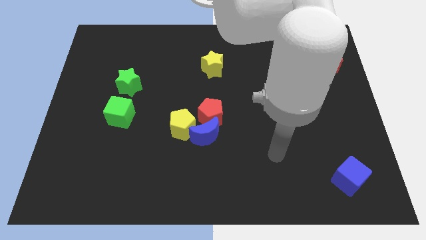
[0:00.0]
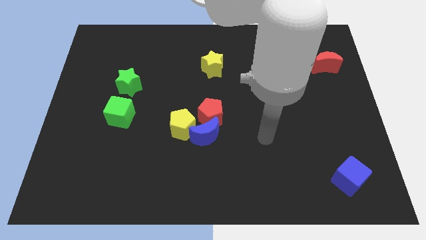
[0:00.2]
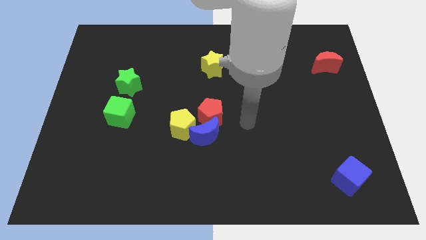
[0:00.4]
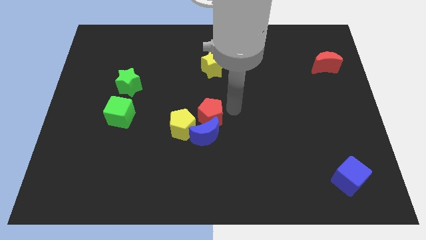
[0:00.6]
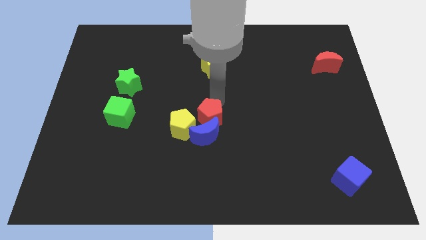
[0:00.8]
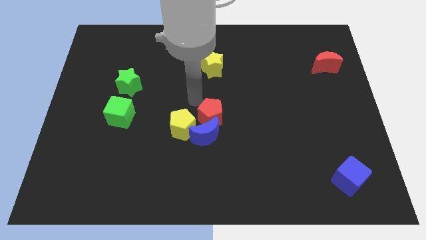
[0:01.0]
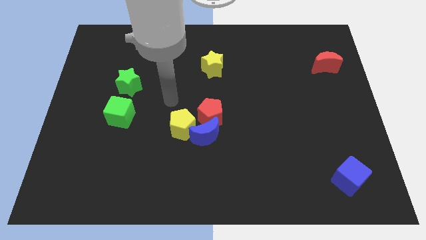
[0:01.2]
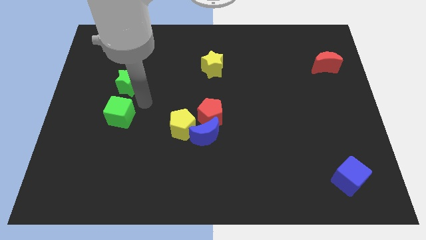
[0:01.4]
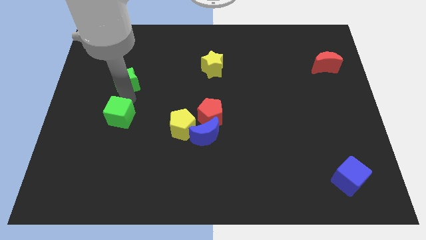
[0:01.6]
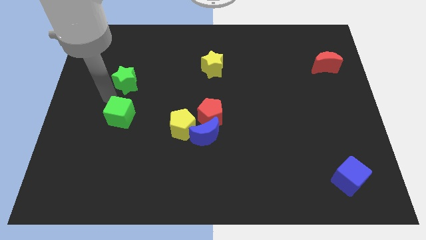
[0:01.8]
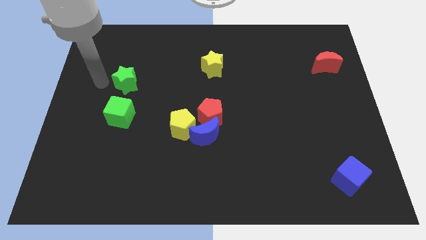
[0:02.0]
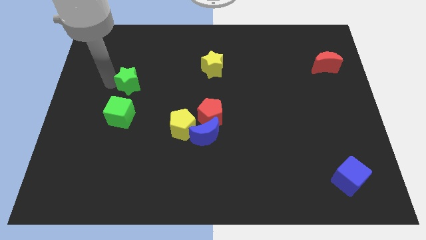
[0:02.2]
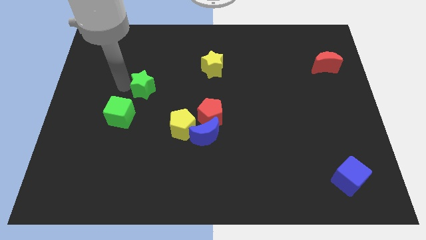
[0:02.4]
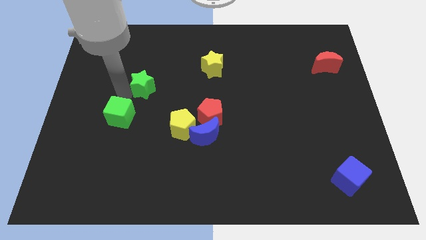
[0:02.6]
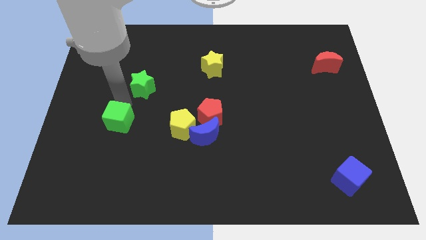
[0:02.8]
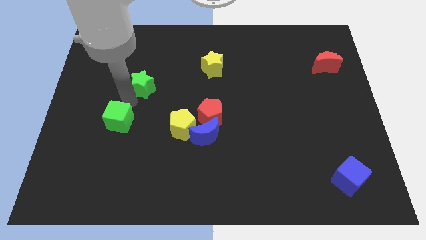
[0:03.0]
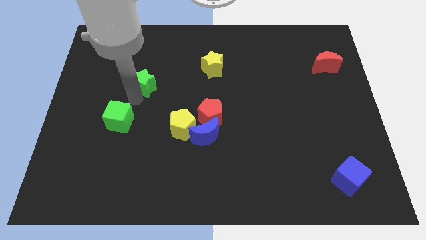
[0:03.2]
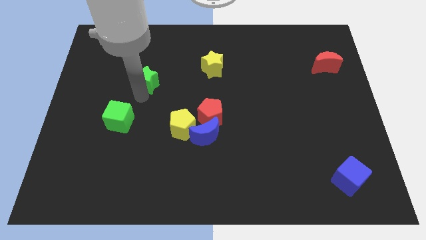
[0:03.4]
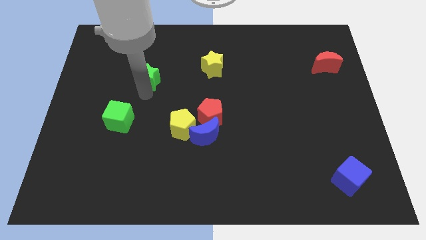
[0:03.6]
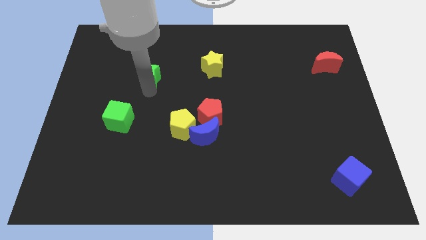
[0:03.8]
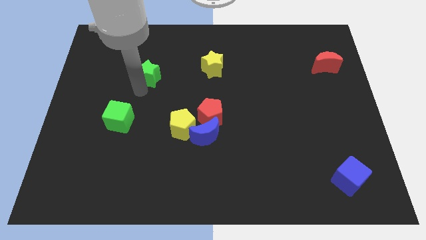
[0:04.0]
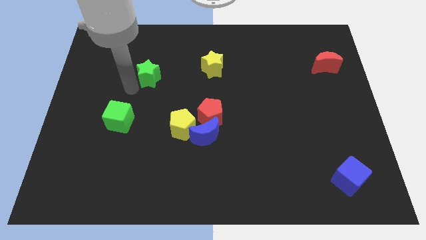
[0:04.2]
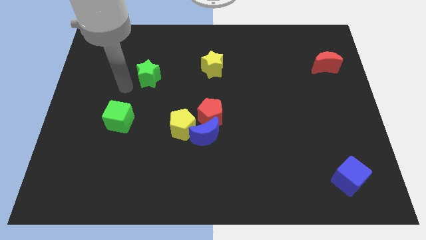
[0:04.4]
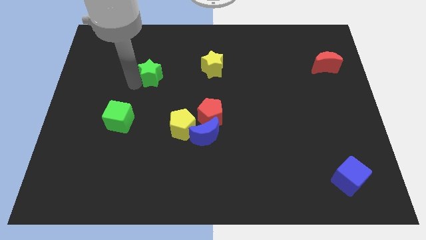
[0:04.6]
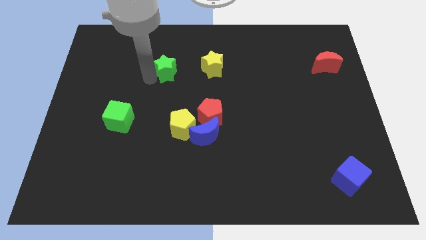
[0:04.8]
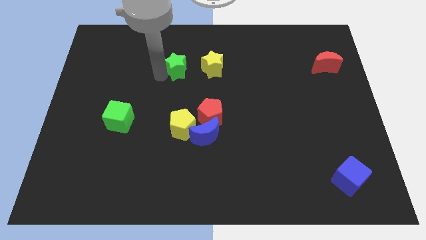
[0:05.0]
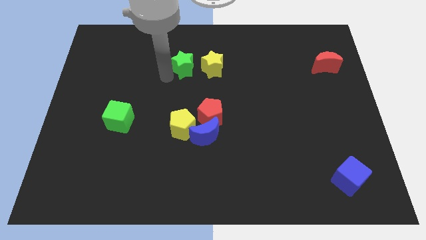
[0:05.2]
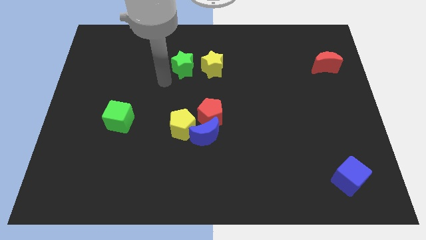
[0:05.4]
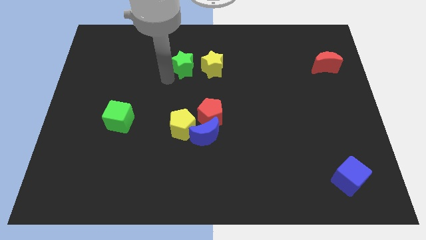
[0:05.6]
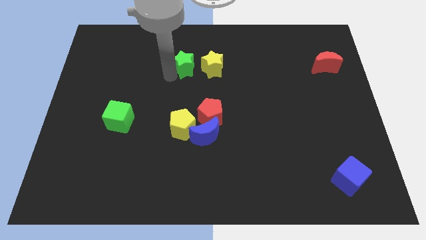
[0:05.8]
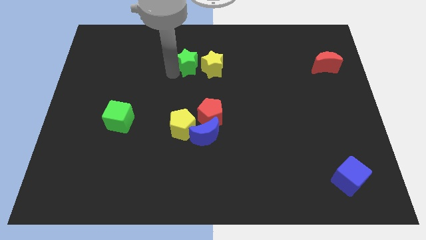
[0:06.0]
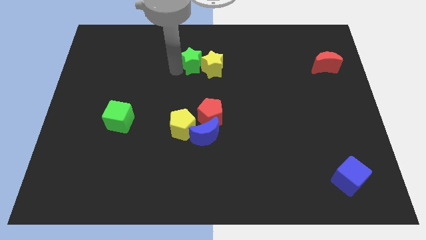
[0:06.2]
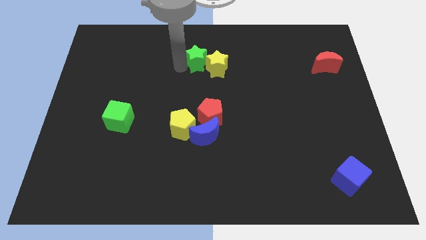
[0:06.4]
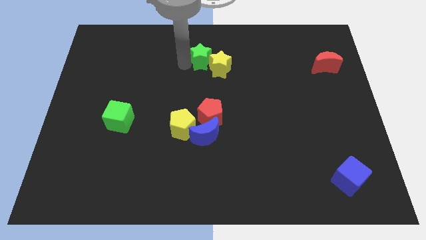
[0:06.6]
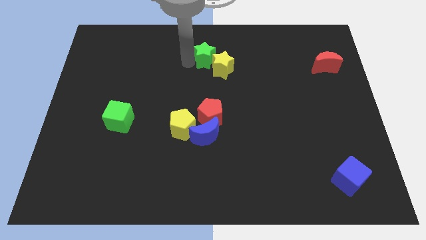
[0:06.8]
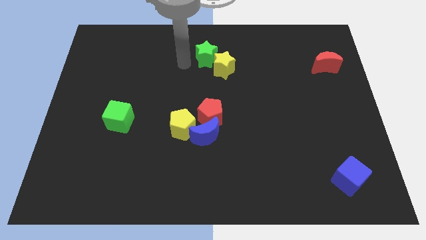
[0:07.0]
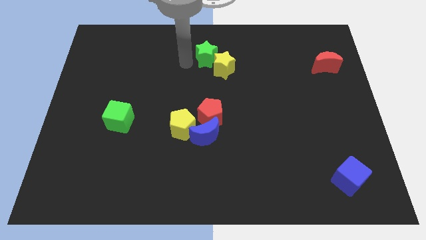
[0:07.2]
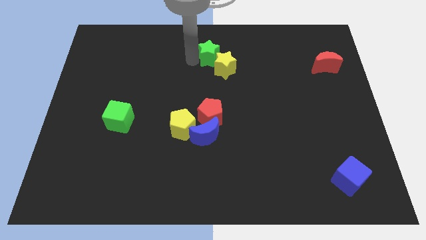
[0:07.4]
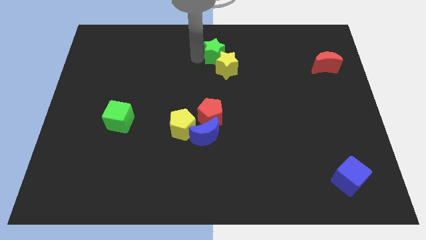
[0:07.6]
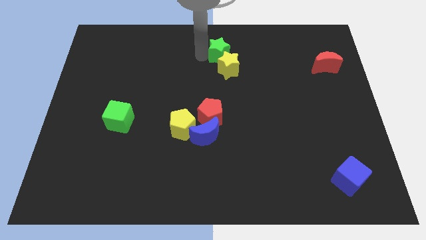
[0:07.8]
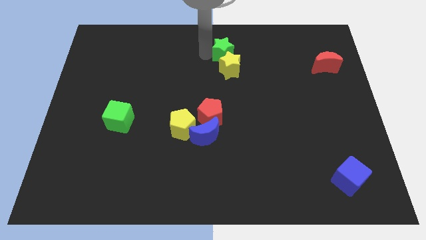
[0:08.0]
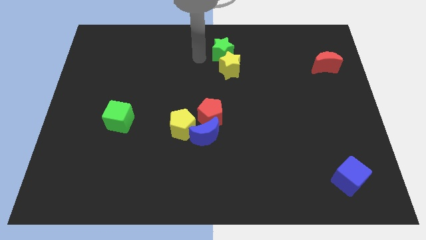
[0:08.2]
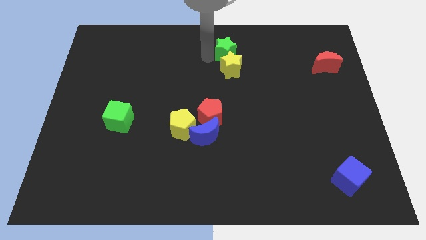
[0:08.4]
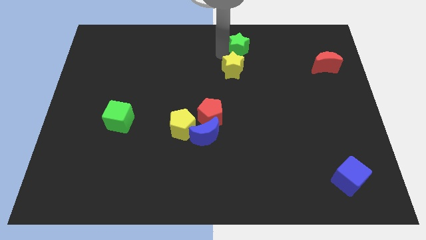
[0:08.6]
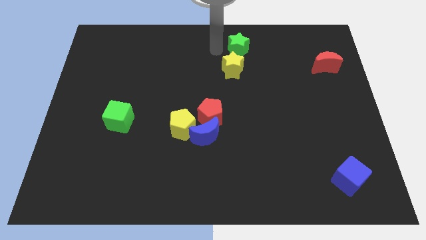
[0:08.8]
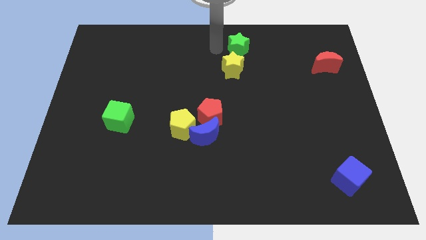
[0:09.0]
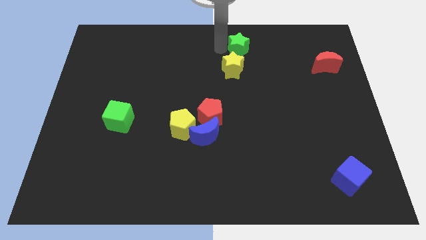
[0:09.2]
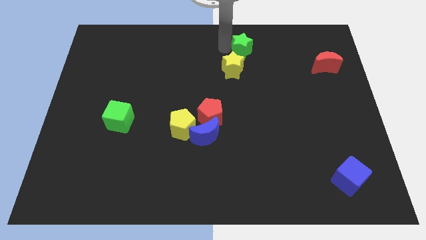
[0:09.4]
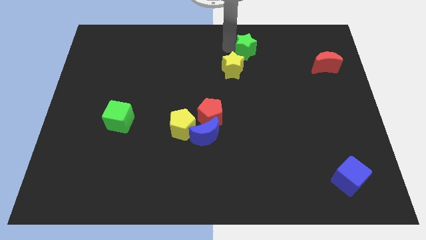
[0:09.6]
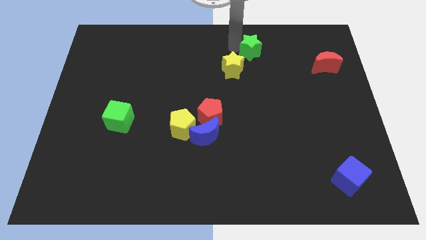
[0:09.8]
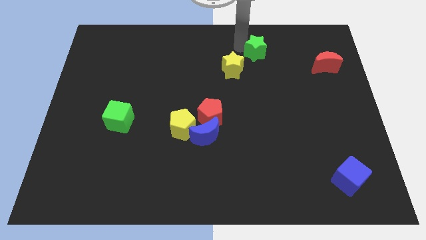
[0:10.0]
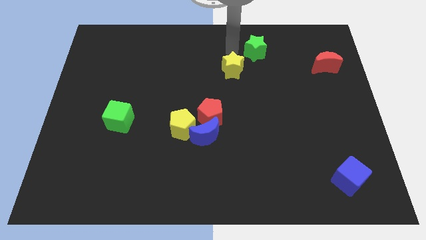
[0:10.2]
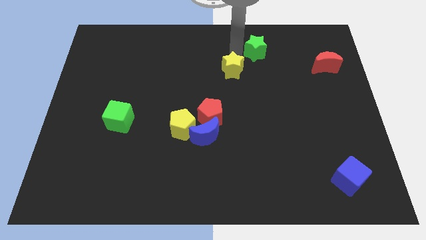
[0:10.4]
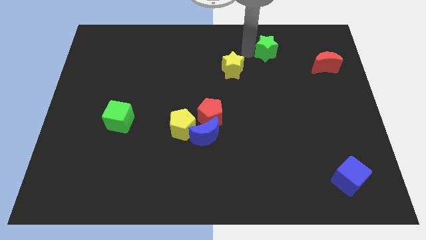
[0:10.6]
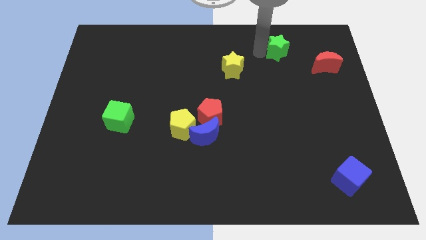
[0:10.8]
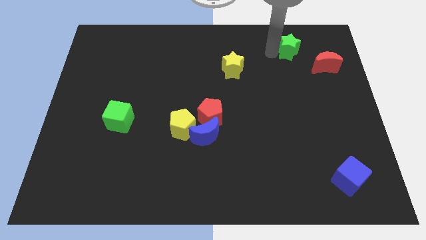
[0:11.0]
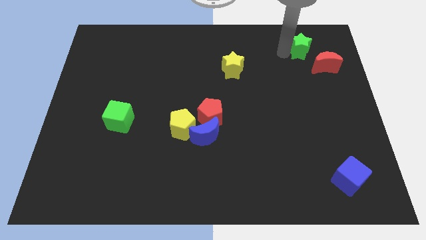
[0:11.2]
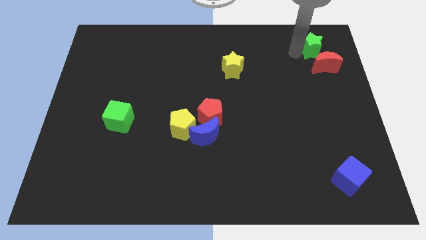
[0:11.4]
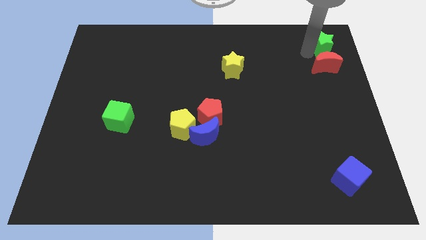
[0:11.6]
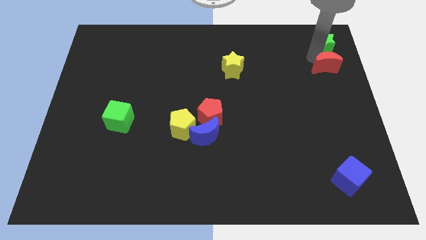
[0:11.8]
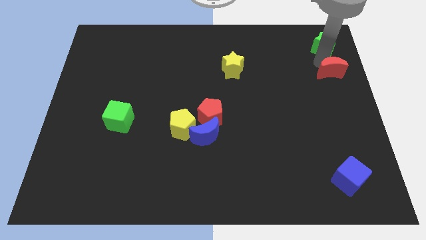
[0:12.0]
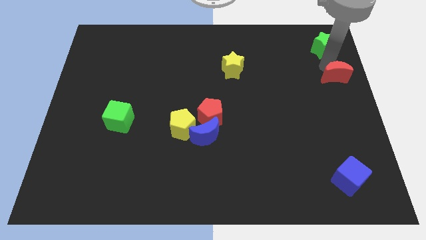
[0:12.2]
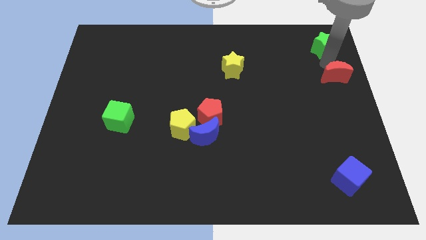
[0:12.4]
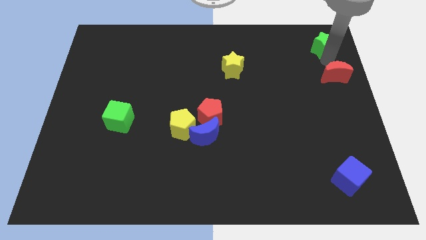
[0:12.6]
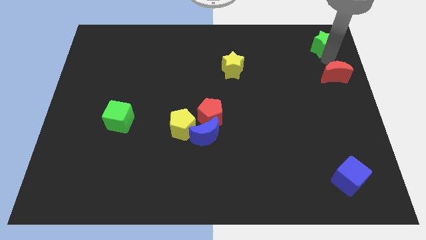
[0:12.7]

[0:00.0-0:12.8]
push the green star to the upper right corner
